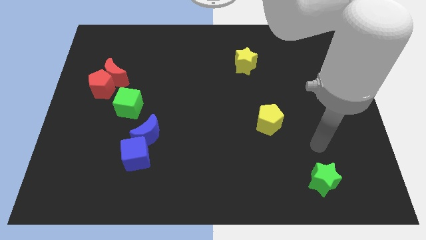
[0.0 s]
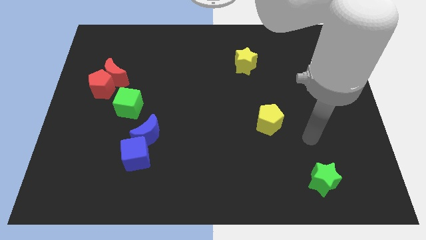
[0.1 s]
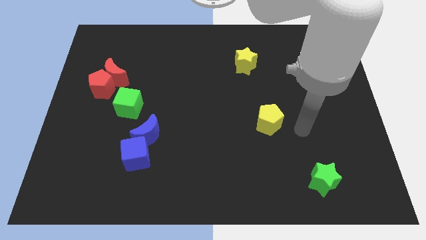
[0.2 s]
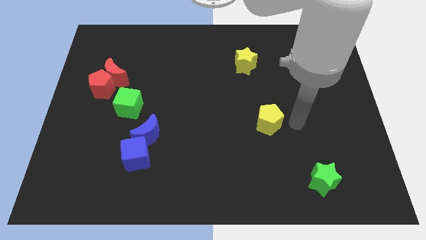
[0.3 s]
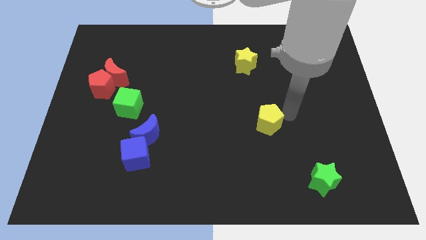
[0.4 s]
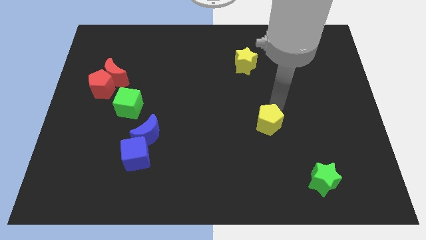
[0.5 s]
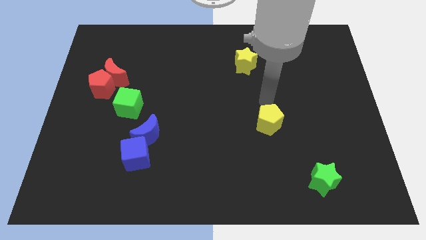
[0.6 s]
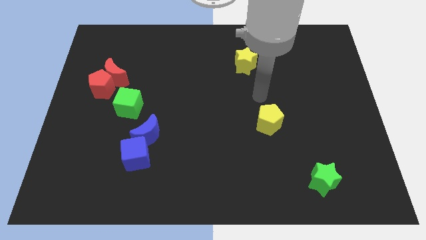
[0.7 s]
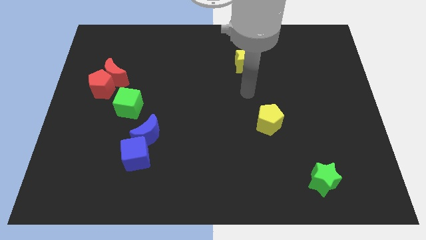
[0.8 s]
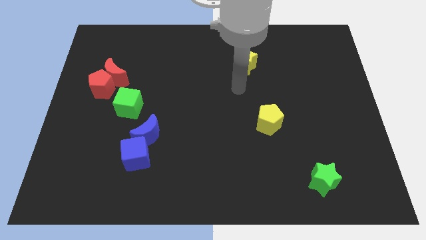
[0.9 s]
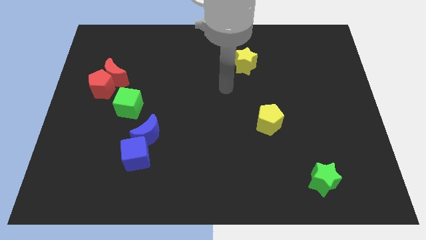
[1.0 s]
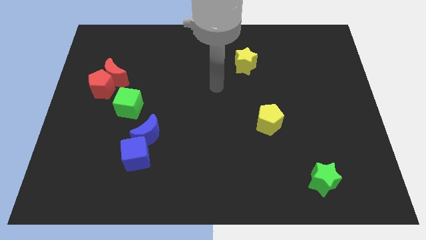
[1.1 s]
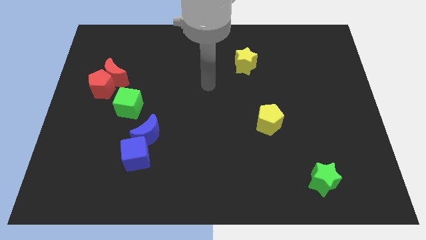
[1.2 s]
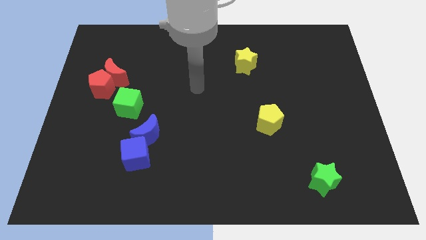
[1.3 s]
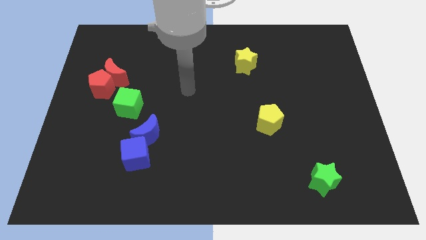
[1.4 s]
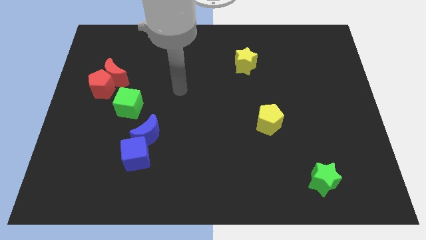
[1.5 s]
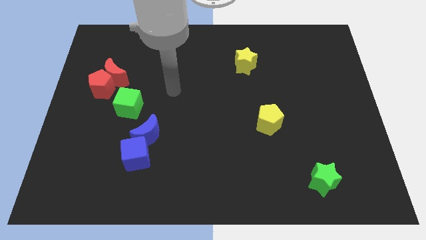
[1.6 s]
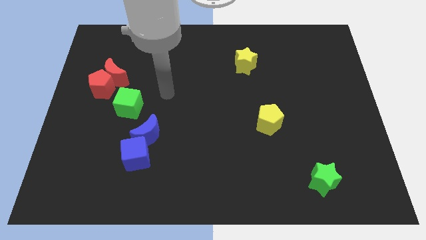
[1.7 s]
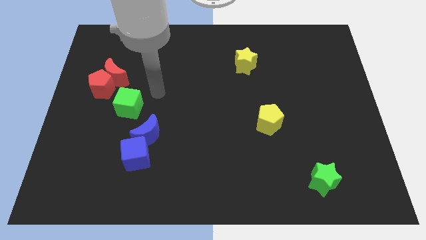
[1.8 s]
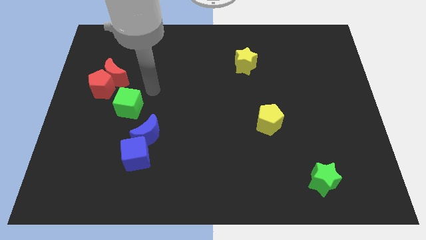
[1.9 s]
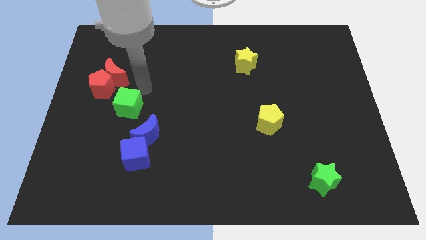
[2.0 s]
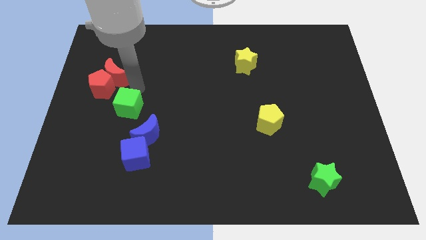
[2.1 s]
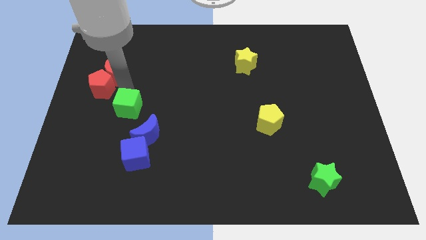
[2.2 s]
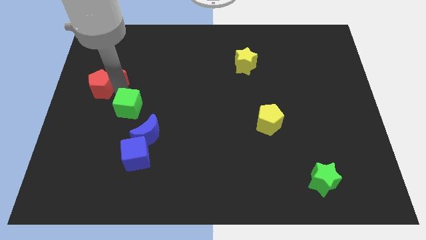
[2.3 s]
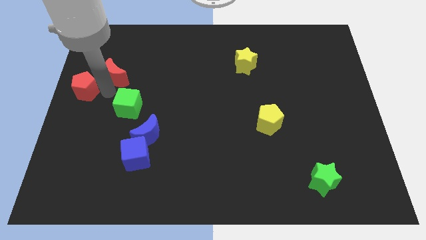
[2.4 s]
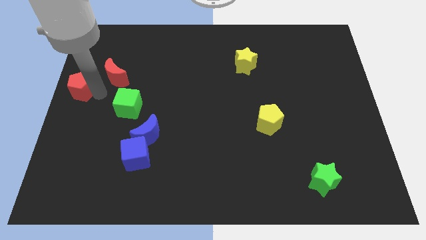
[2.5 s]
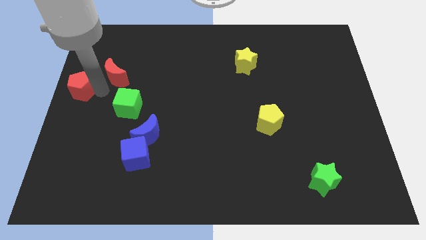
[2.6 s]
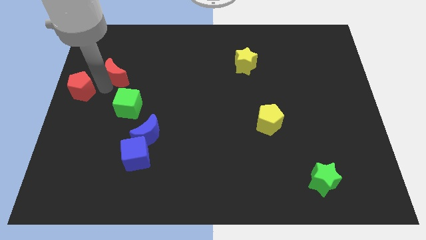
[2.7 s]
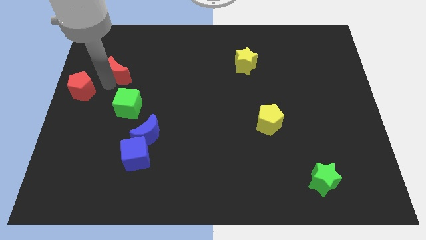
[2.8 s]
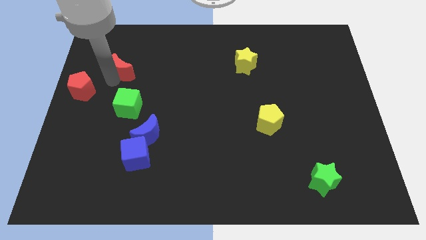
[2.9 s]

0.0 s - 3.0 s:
separate the red moon from the red pentagon

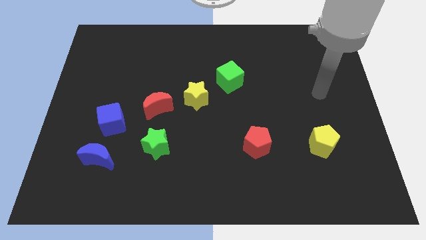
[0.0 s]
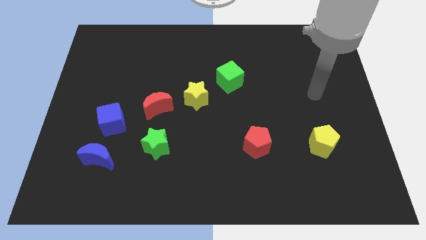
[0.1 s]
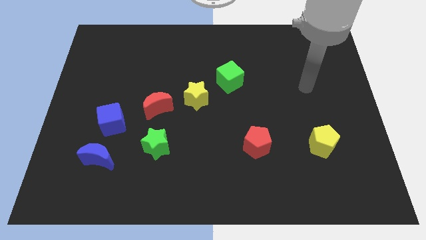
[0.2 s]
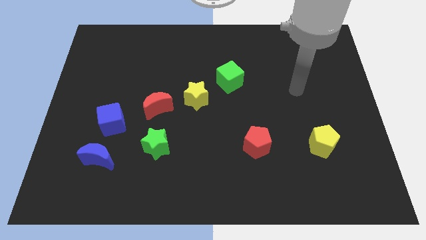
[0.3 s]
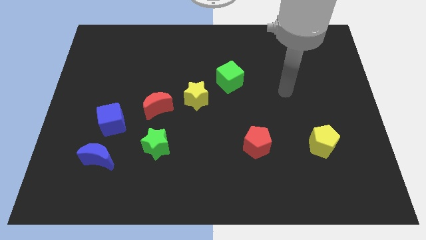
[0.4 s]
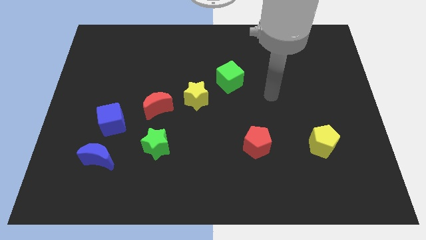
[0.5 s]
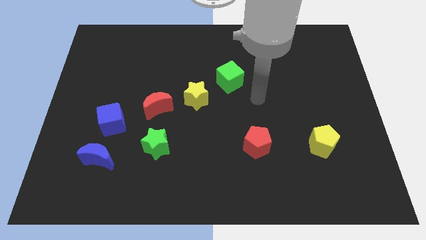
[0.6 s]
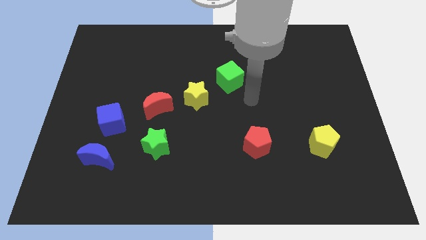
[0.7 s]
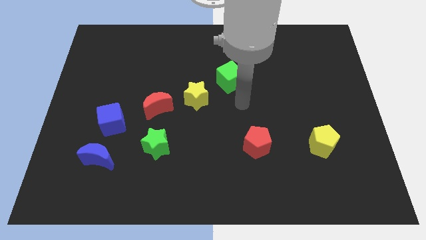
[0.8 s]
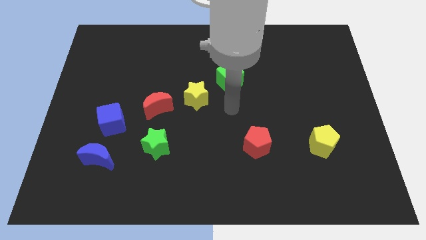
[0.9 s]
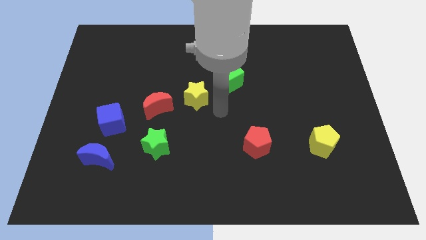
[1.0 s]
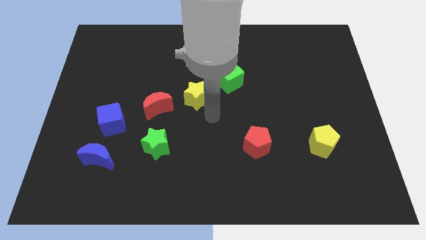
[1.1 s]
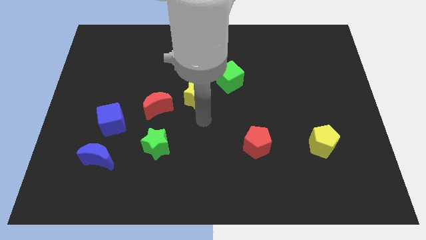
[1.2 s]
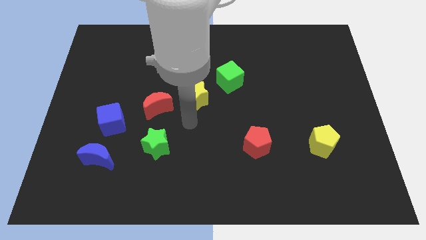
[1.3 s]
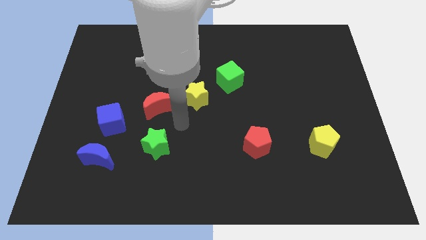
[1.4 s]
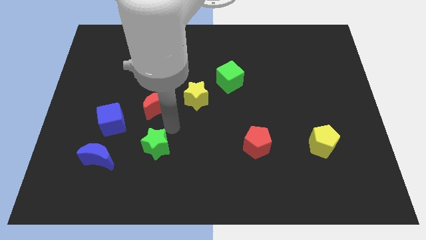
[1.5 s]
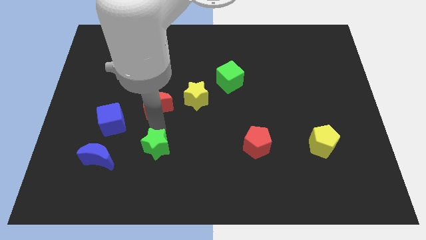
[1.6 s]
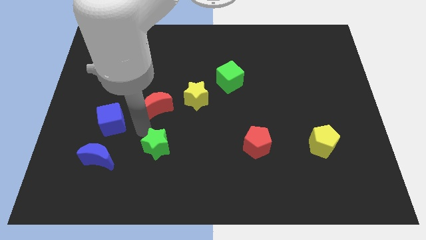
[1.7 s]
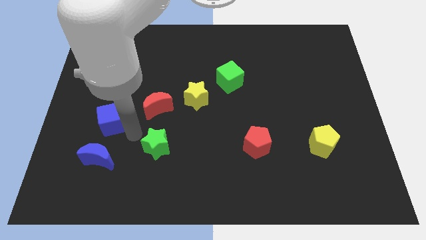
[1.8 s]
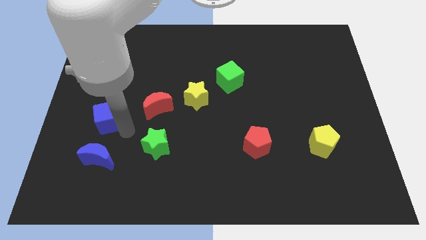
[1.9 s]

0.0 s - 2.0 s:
separate the blue moon from the blue cube

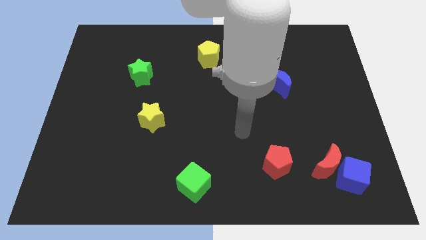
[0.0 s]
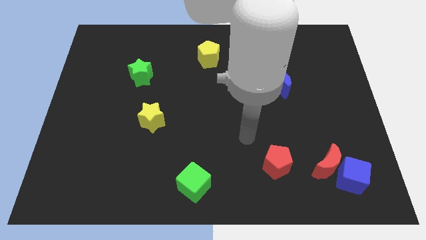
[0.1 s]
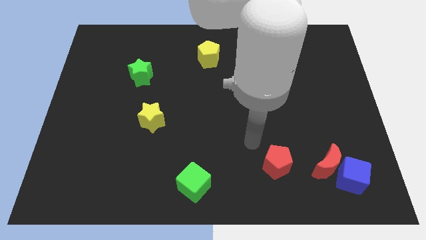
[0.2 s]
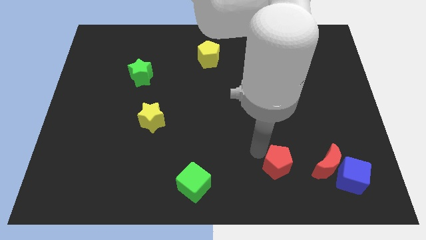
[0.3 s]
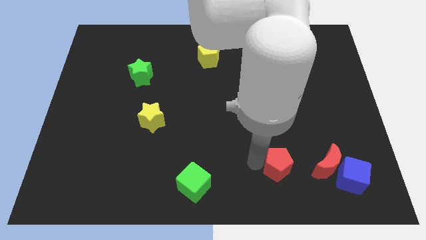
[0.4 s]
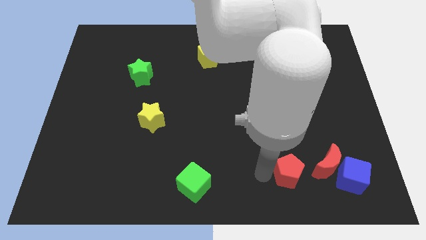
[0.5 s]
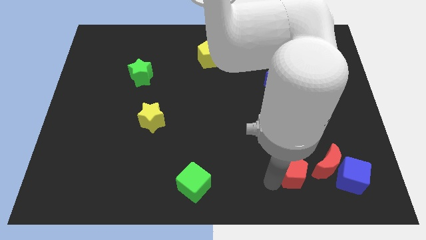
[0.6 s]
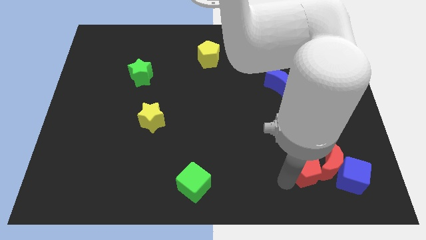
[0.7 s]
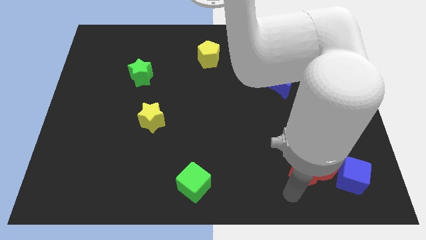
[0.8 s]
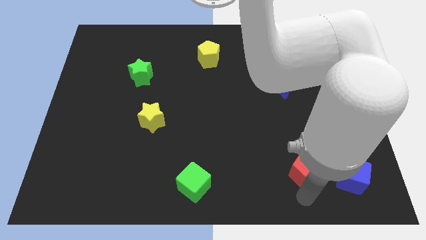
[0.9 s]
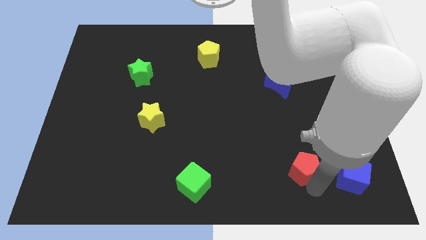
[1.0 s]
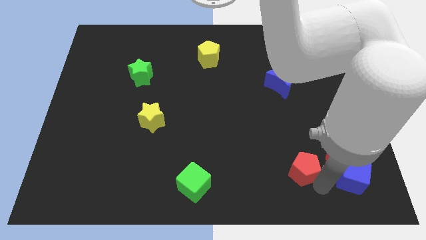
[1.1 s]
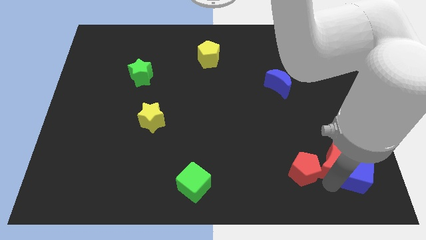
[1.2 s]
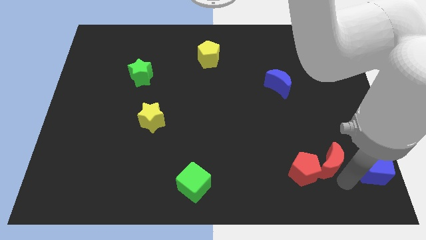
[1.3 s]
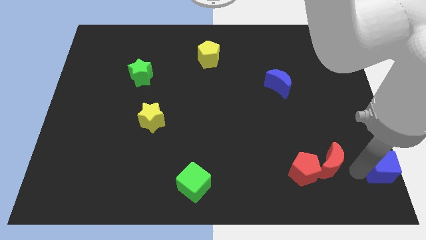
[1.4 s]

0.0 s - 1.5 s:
separate the red moon from the blue cube

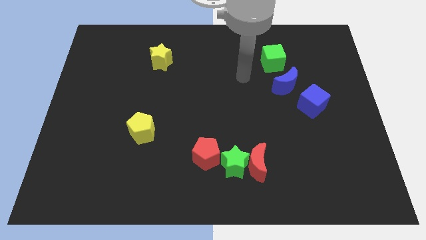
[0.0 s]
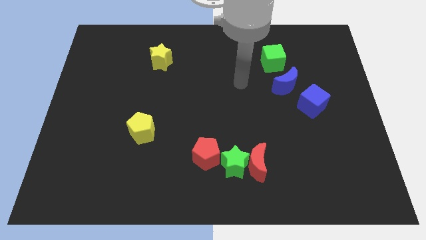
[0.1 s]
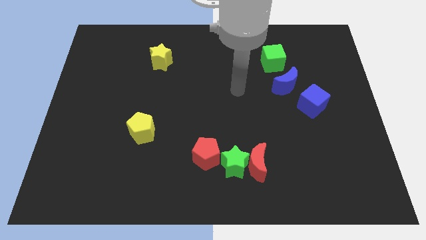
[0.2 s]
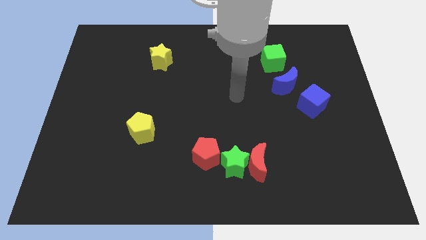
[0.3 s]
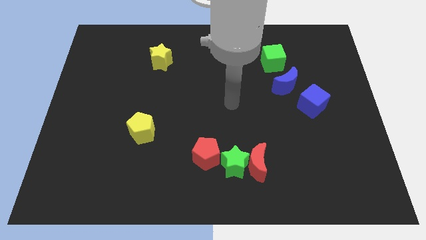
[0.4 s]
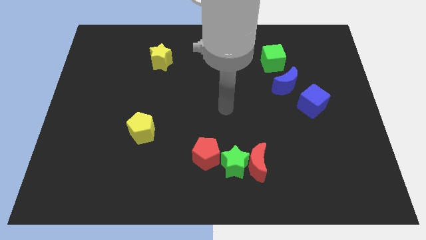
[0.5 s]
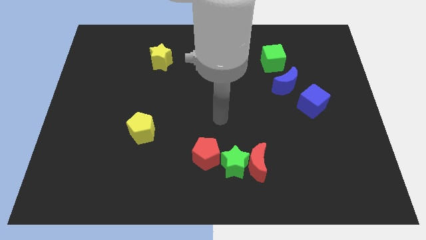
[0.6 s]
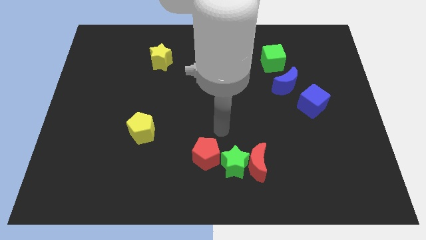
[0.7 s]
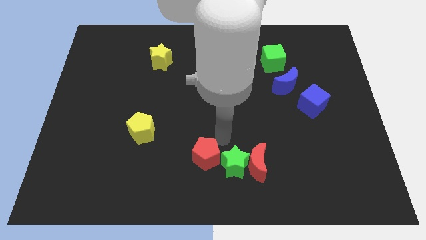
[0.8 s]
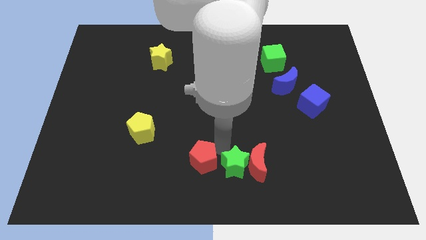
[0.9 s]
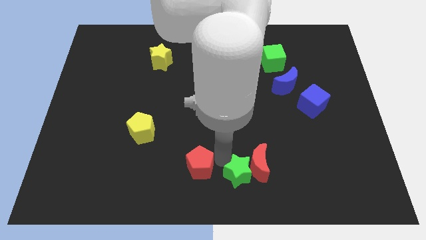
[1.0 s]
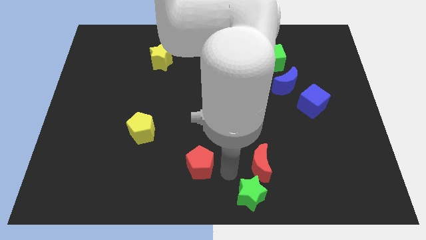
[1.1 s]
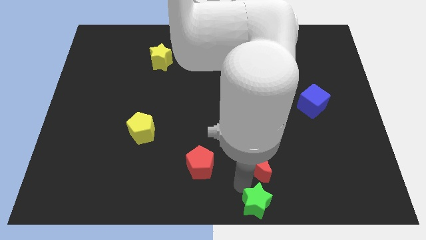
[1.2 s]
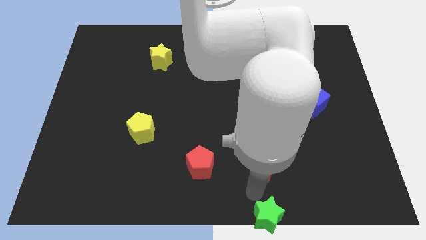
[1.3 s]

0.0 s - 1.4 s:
separate the red moon from the green star

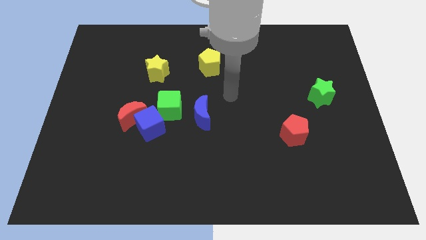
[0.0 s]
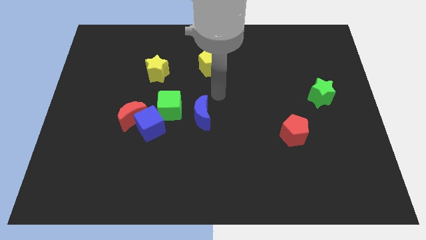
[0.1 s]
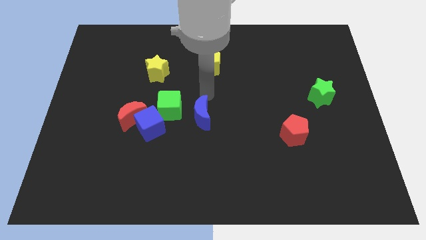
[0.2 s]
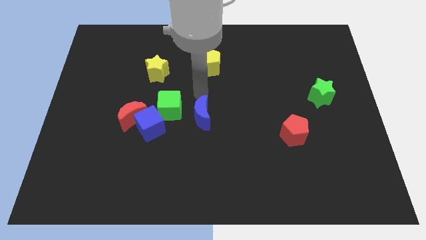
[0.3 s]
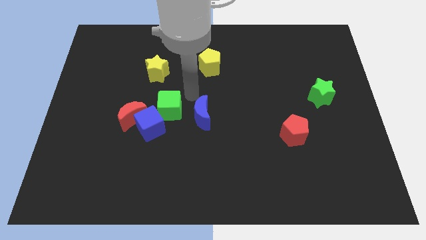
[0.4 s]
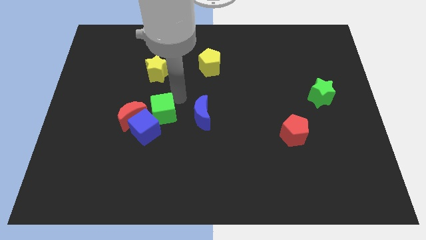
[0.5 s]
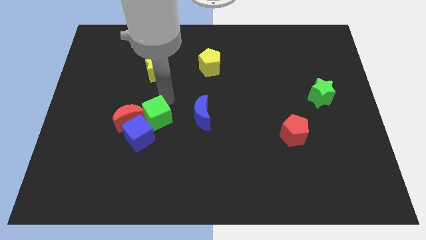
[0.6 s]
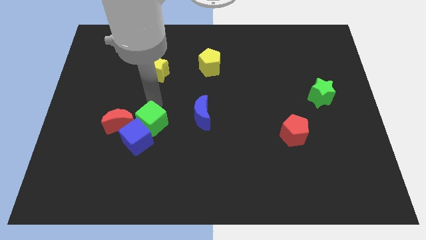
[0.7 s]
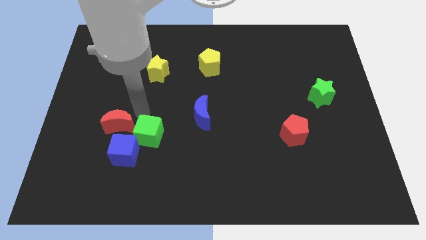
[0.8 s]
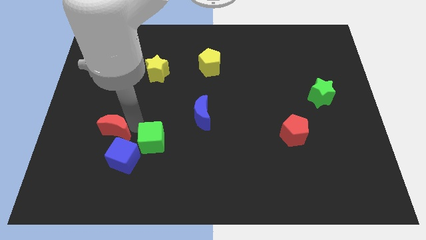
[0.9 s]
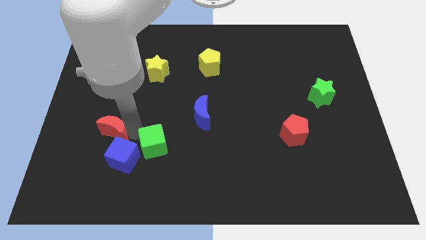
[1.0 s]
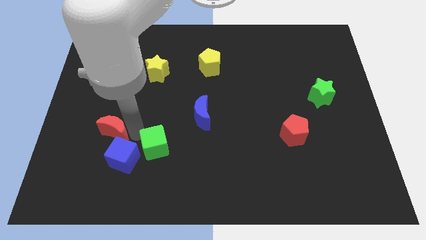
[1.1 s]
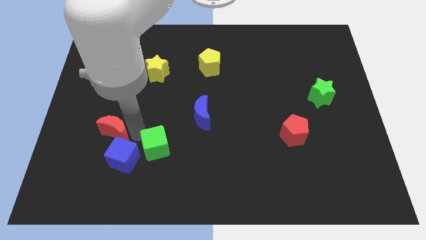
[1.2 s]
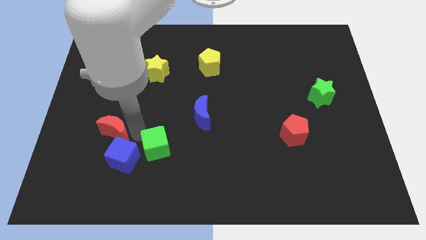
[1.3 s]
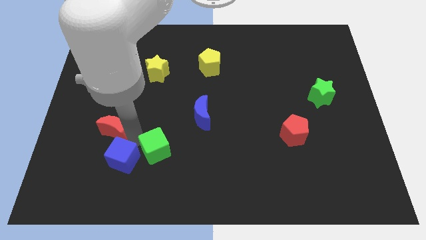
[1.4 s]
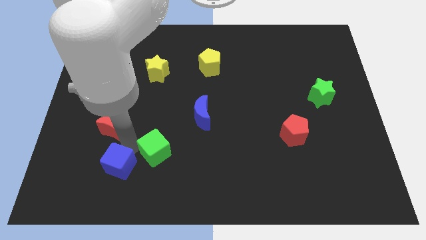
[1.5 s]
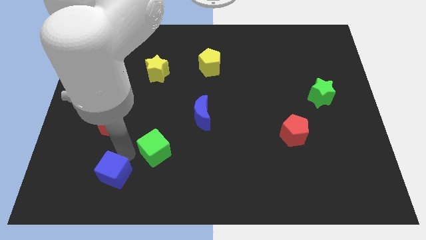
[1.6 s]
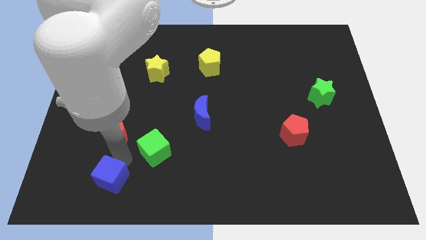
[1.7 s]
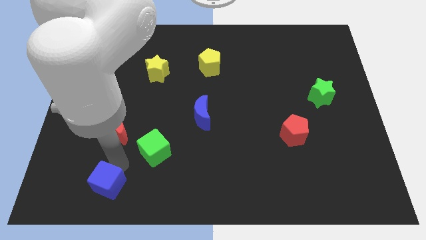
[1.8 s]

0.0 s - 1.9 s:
move the blue cube away from the red moon and green cube
